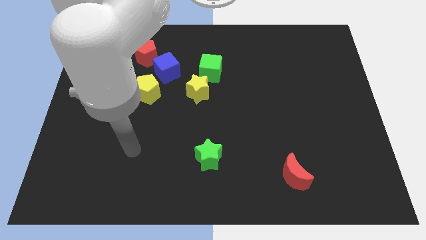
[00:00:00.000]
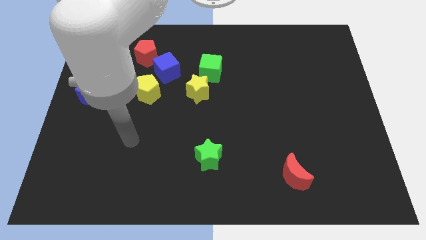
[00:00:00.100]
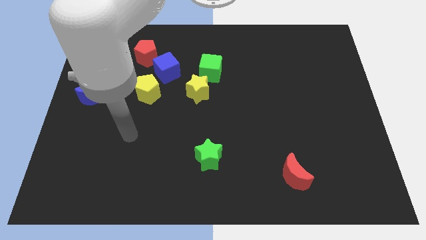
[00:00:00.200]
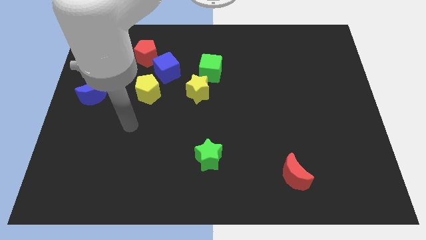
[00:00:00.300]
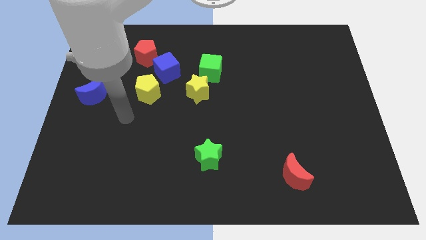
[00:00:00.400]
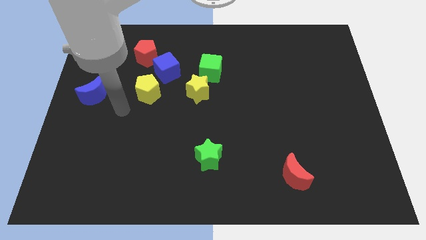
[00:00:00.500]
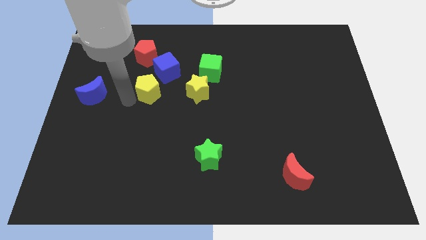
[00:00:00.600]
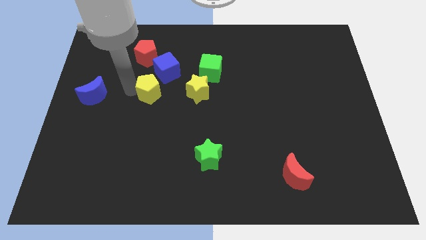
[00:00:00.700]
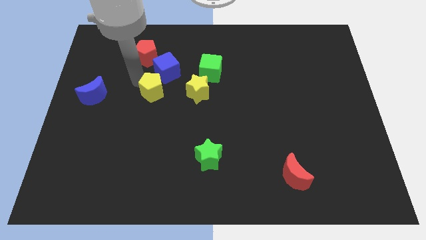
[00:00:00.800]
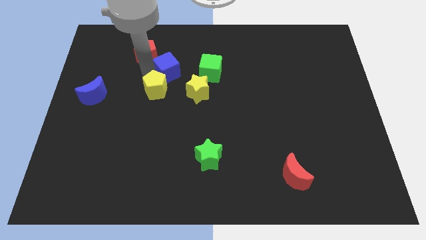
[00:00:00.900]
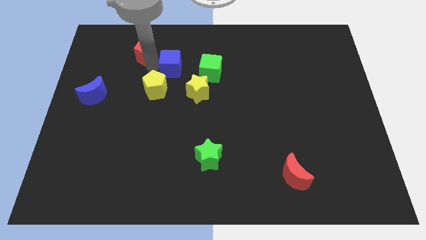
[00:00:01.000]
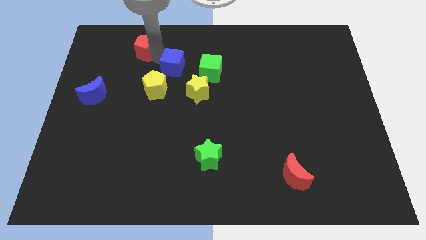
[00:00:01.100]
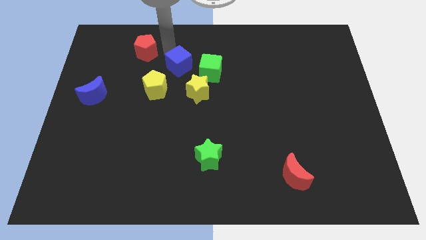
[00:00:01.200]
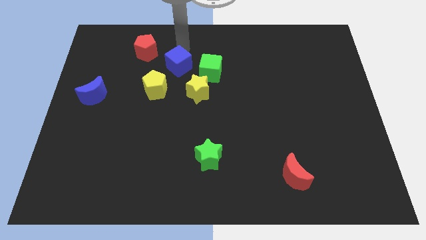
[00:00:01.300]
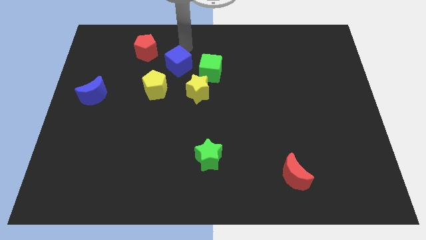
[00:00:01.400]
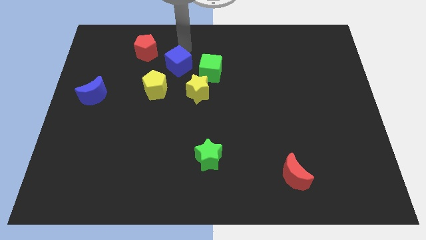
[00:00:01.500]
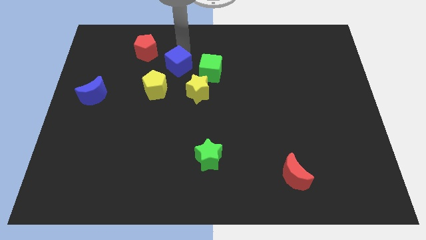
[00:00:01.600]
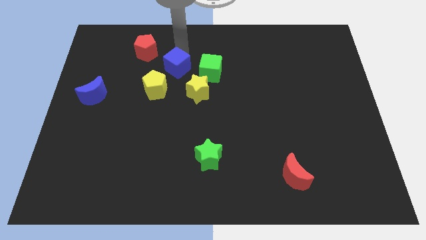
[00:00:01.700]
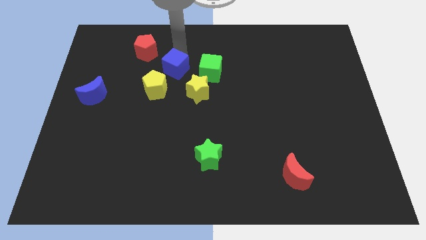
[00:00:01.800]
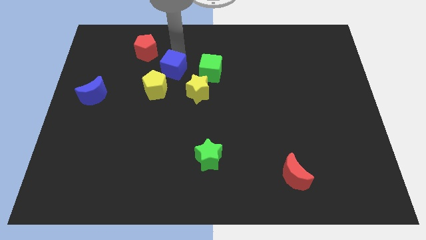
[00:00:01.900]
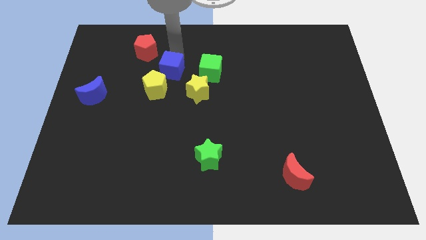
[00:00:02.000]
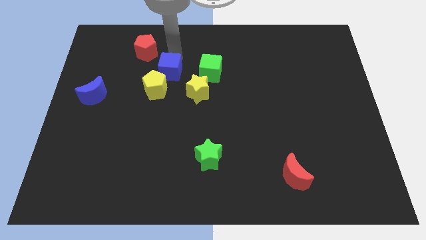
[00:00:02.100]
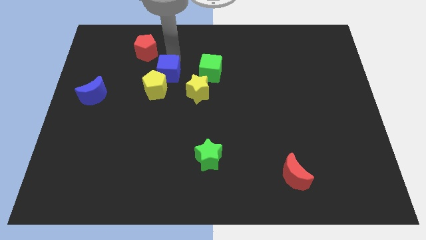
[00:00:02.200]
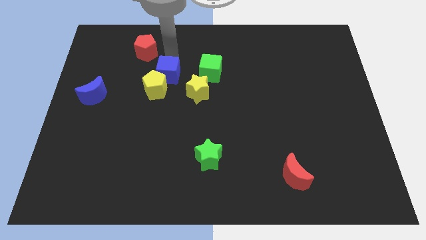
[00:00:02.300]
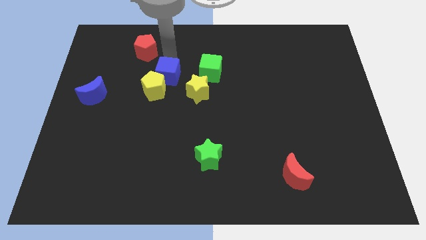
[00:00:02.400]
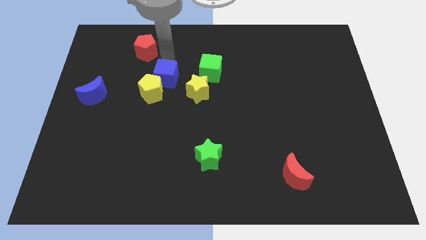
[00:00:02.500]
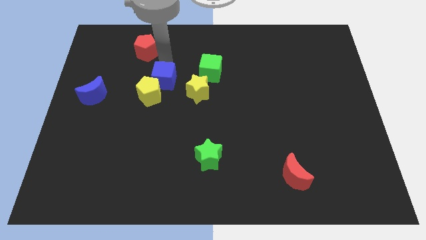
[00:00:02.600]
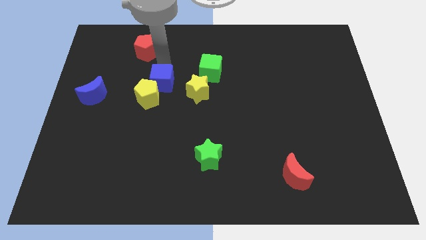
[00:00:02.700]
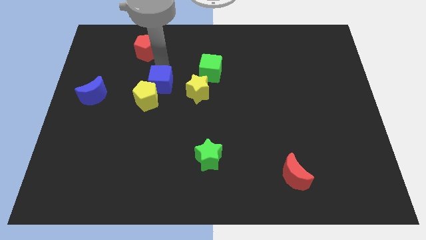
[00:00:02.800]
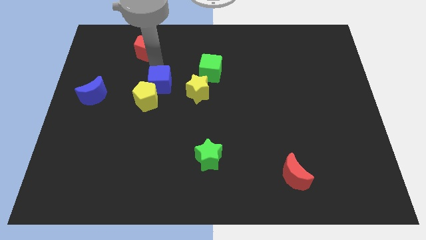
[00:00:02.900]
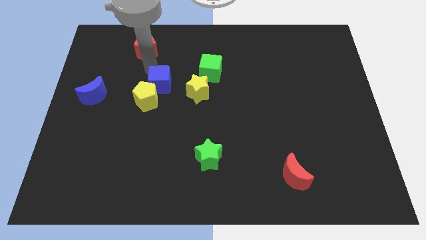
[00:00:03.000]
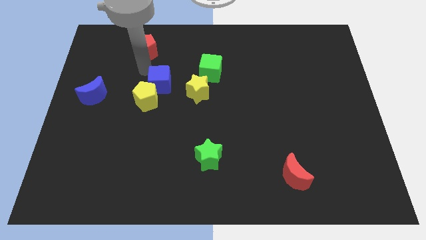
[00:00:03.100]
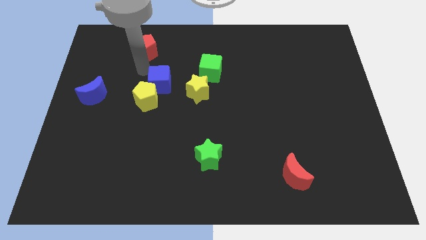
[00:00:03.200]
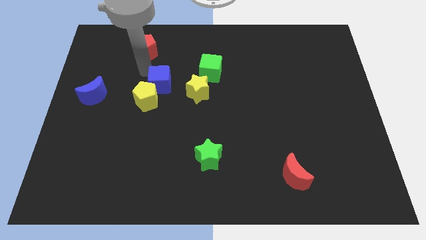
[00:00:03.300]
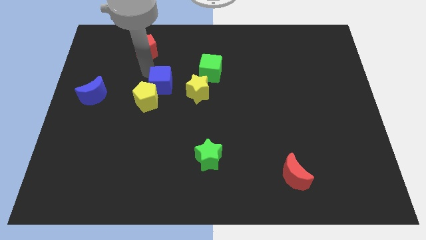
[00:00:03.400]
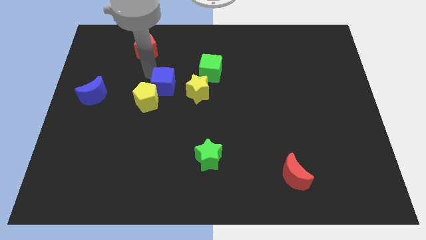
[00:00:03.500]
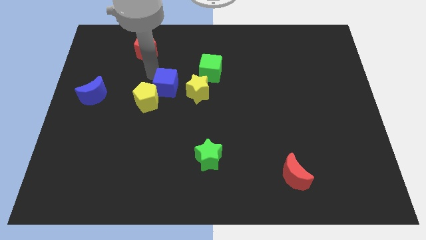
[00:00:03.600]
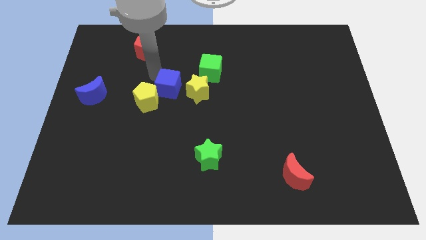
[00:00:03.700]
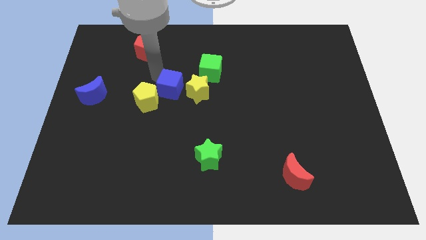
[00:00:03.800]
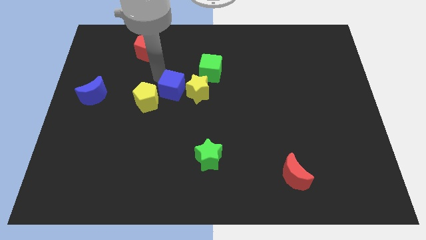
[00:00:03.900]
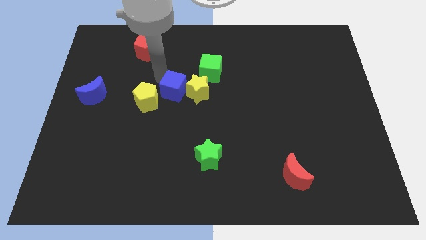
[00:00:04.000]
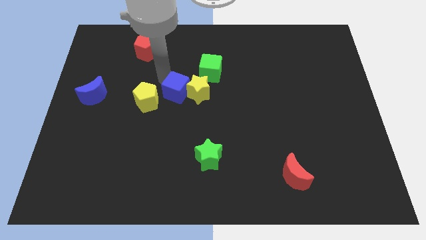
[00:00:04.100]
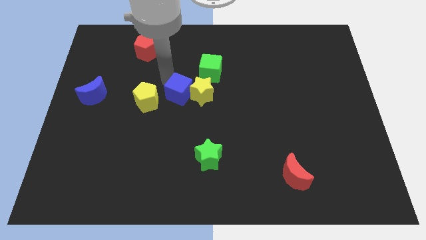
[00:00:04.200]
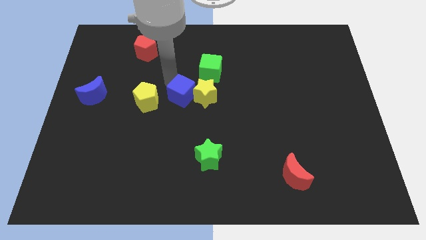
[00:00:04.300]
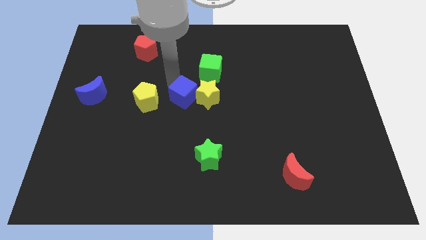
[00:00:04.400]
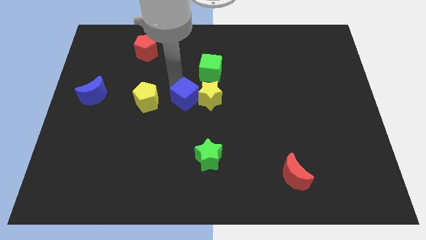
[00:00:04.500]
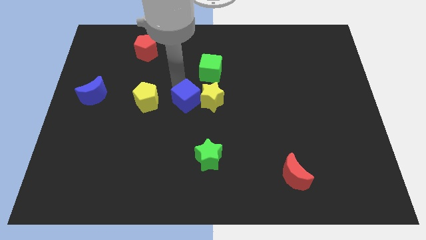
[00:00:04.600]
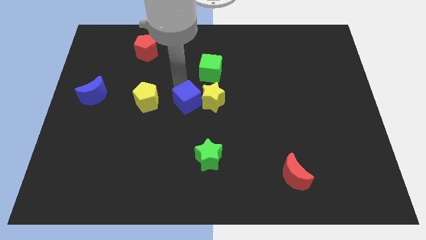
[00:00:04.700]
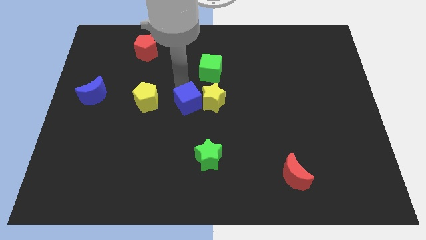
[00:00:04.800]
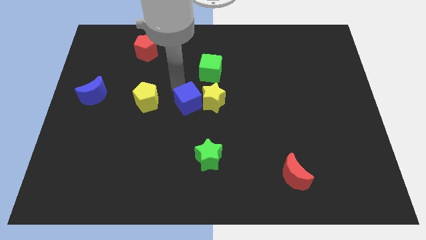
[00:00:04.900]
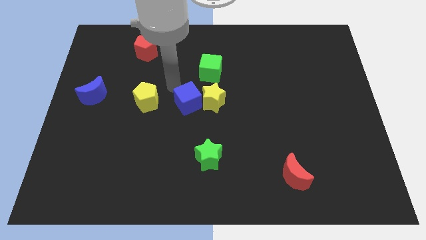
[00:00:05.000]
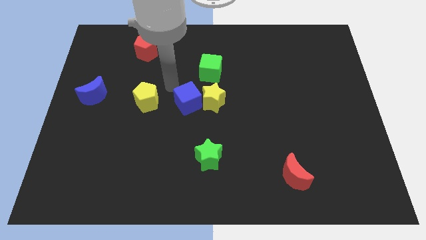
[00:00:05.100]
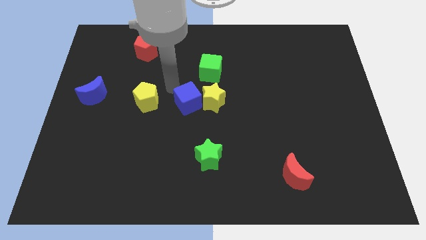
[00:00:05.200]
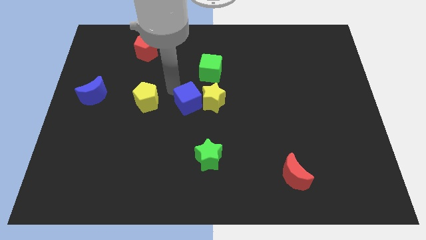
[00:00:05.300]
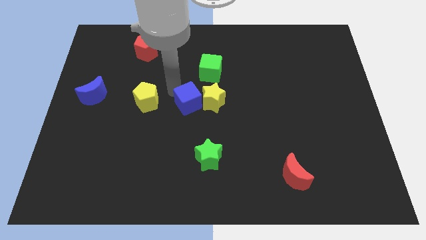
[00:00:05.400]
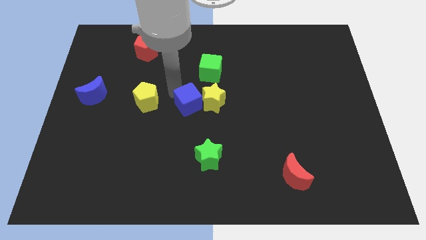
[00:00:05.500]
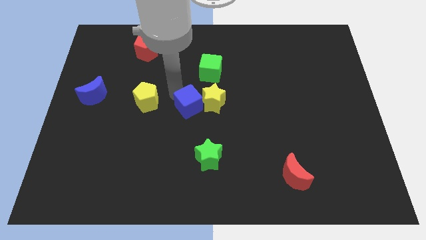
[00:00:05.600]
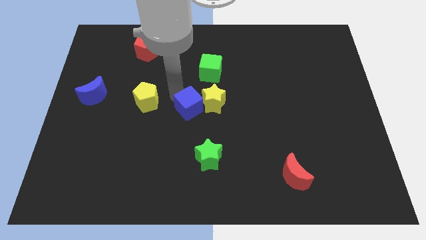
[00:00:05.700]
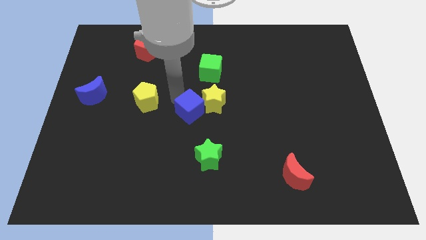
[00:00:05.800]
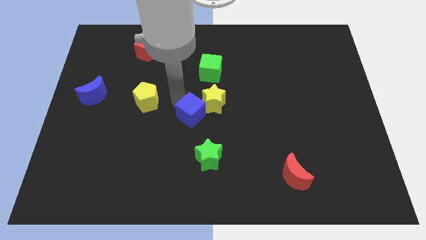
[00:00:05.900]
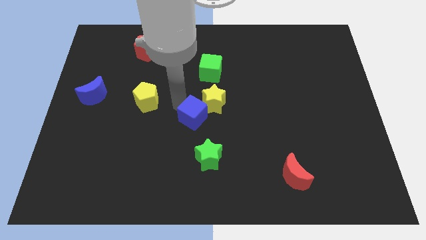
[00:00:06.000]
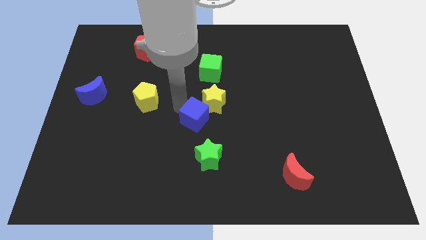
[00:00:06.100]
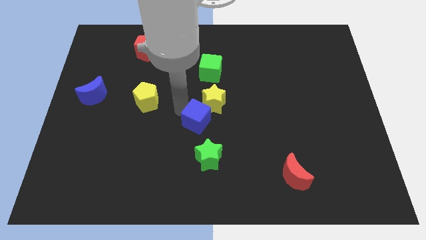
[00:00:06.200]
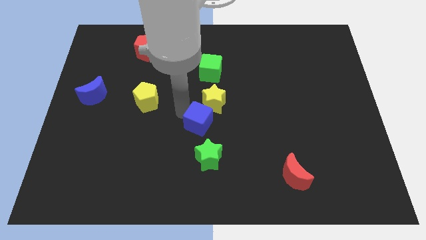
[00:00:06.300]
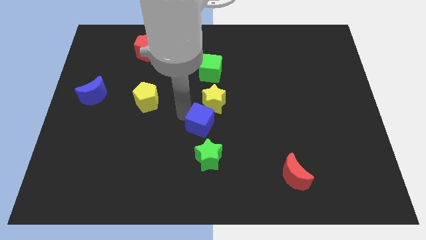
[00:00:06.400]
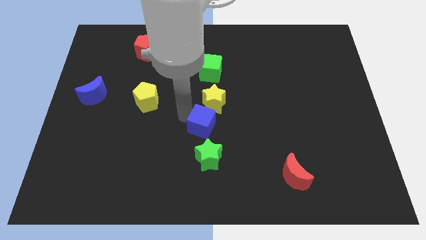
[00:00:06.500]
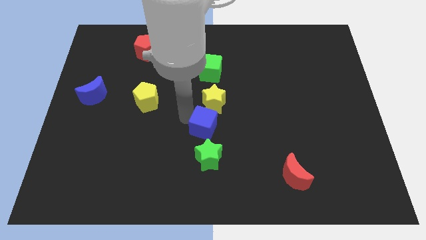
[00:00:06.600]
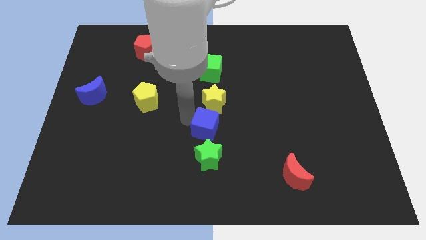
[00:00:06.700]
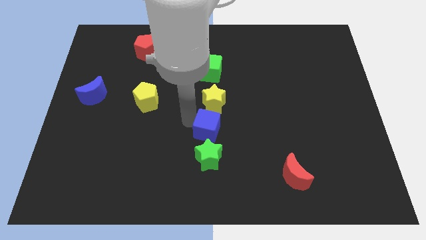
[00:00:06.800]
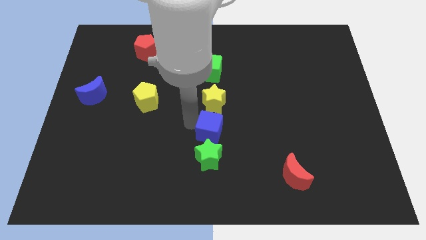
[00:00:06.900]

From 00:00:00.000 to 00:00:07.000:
push the blue cube diagonally up and to the right of the green star
